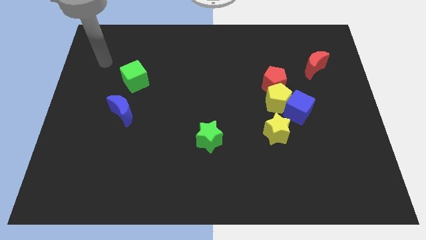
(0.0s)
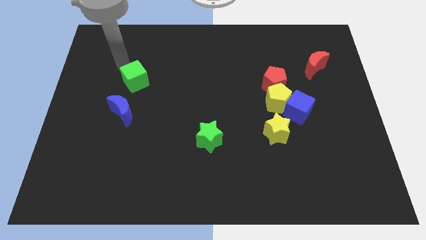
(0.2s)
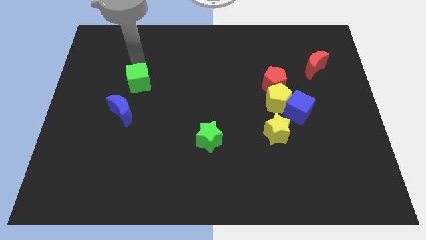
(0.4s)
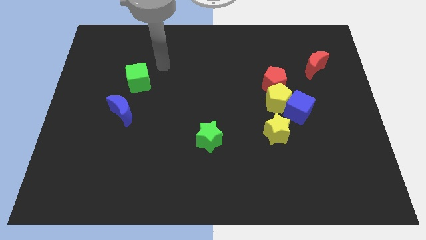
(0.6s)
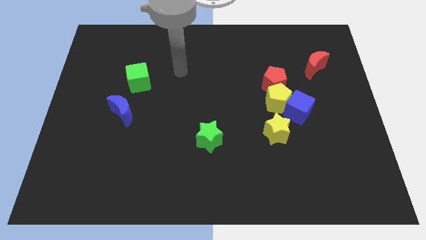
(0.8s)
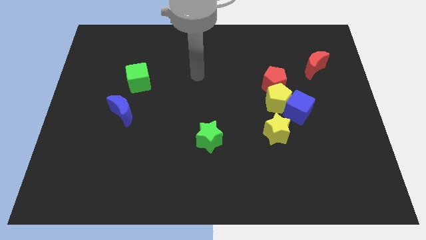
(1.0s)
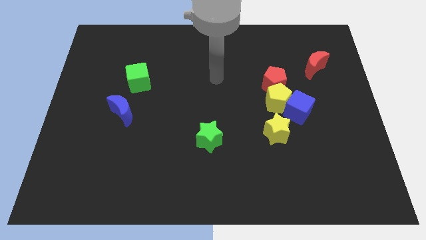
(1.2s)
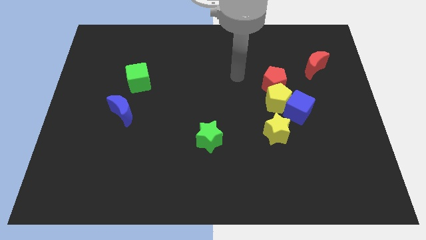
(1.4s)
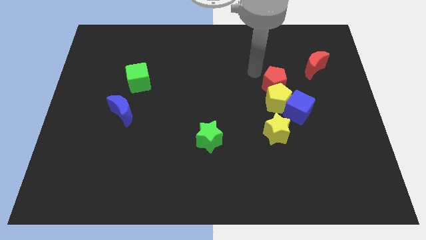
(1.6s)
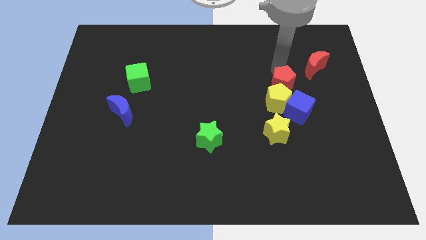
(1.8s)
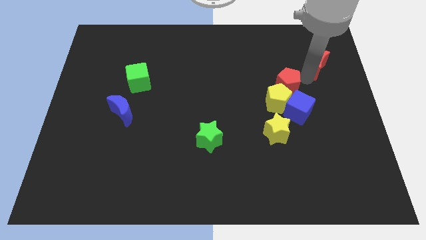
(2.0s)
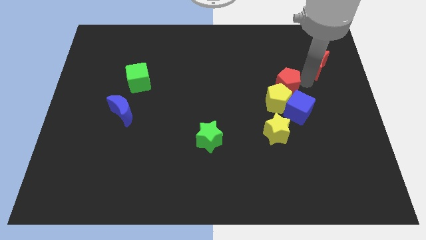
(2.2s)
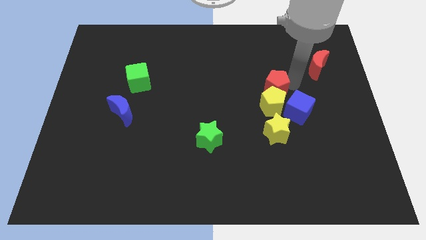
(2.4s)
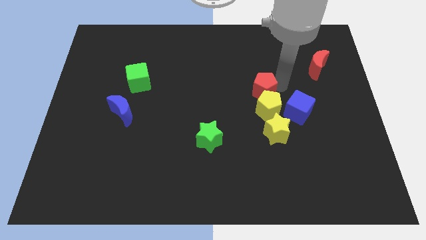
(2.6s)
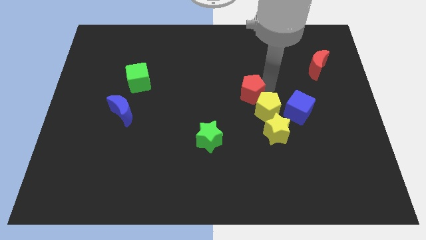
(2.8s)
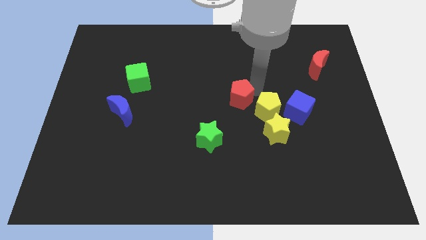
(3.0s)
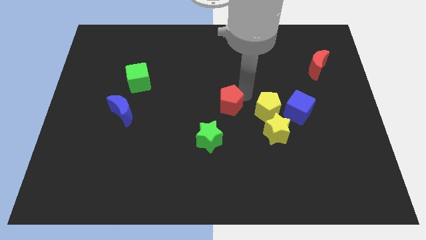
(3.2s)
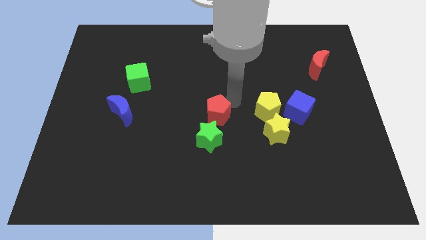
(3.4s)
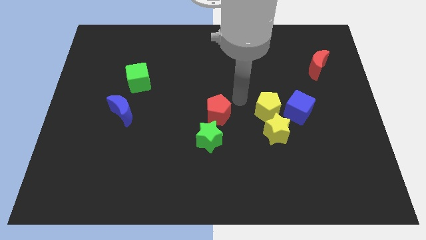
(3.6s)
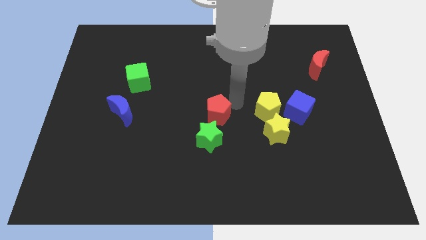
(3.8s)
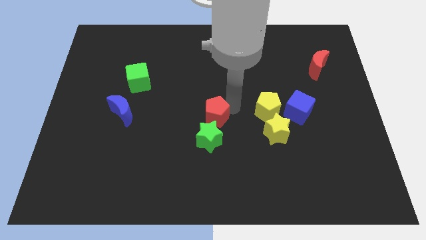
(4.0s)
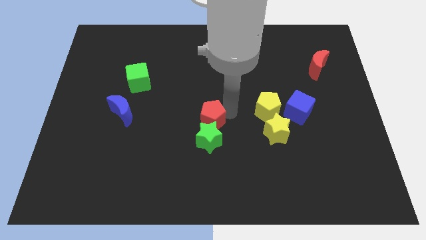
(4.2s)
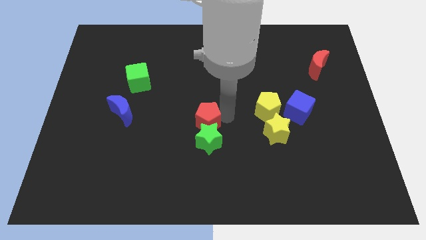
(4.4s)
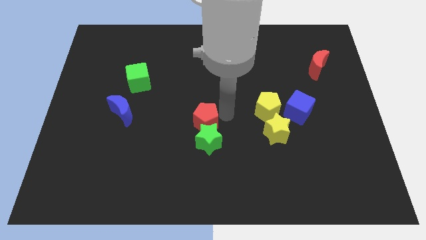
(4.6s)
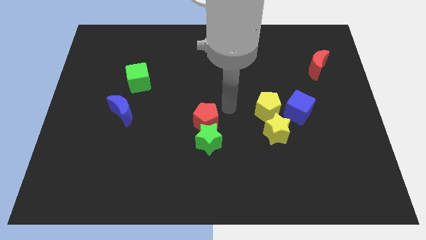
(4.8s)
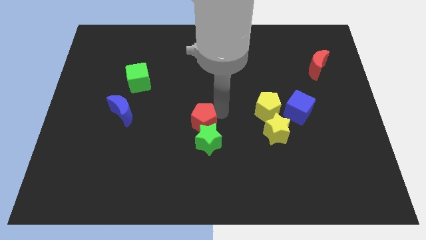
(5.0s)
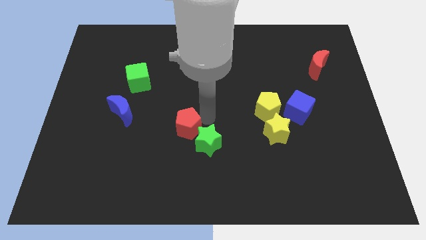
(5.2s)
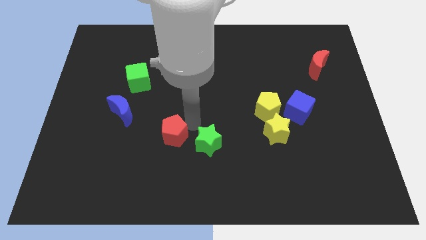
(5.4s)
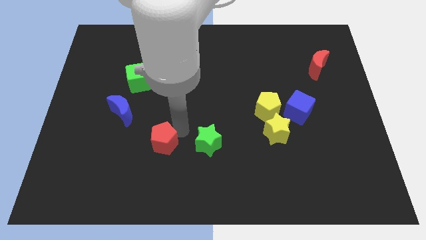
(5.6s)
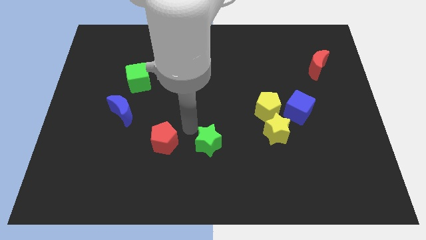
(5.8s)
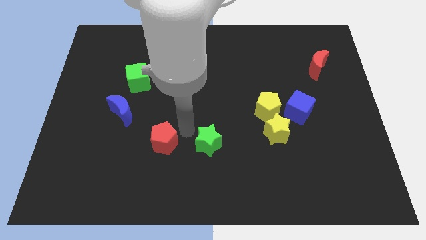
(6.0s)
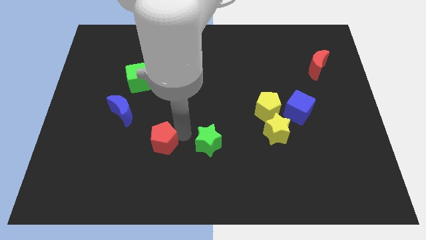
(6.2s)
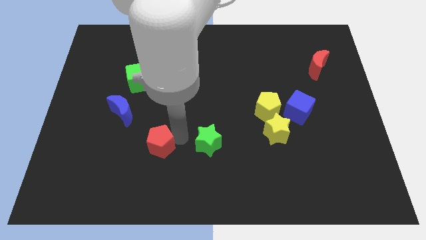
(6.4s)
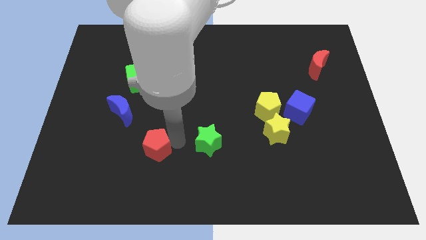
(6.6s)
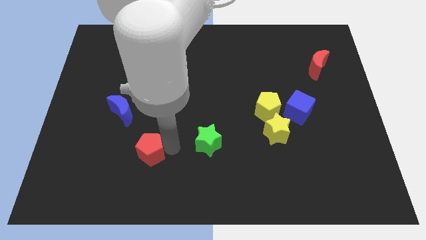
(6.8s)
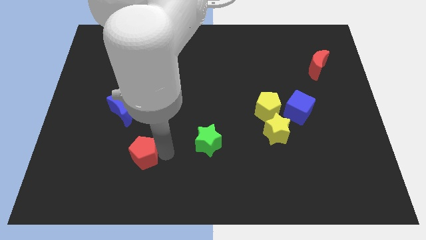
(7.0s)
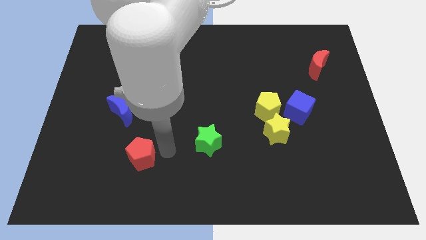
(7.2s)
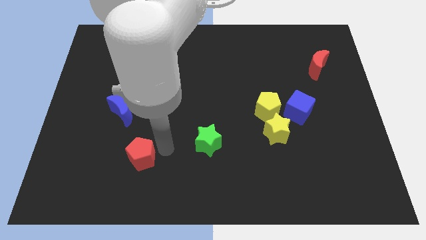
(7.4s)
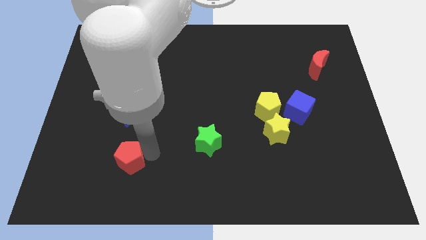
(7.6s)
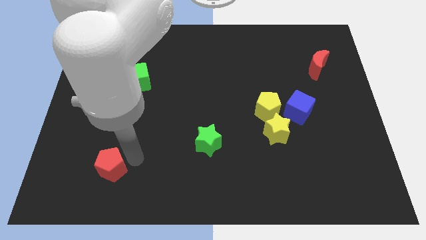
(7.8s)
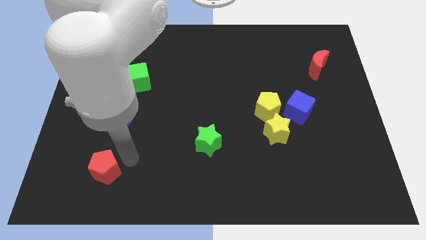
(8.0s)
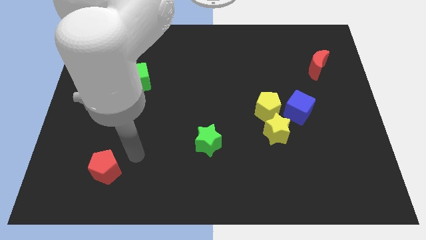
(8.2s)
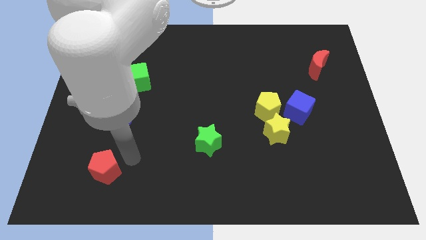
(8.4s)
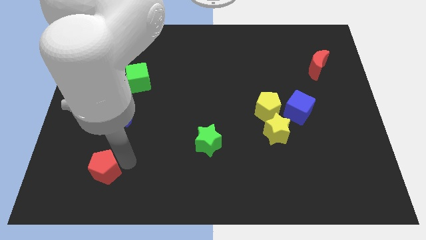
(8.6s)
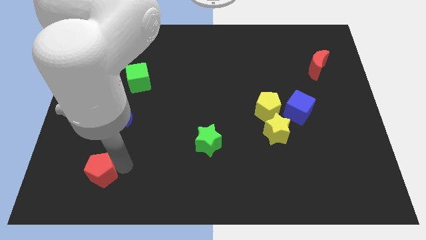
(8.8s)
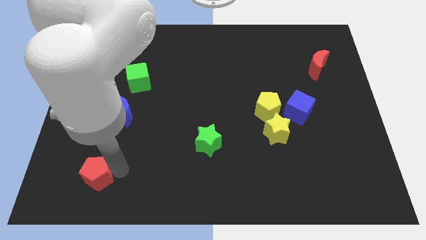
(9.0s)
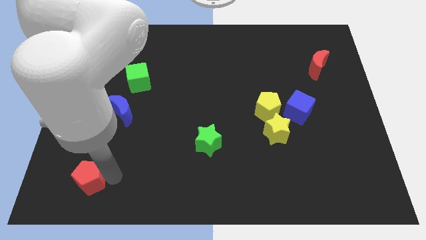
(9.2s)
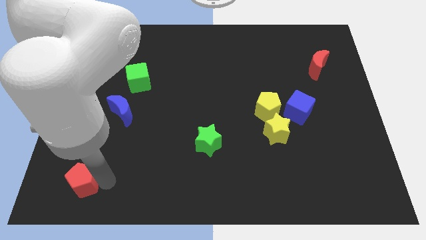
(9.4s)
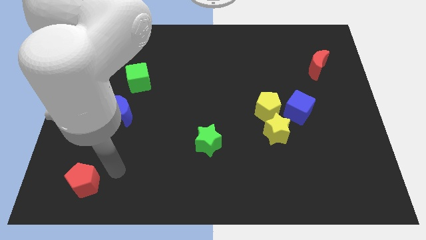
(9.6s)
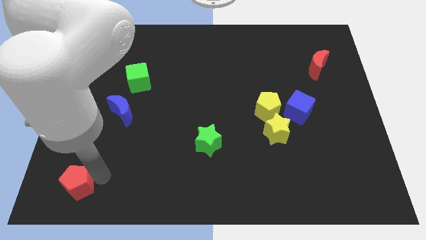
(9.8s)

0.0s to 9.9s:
push the red pentagon to the bottom left of the board

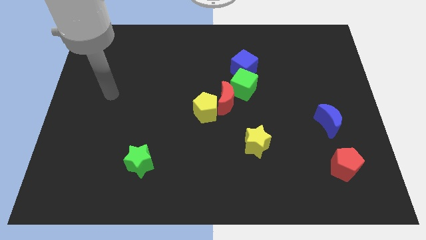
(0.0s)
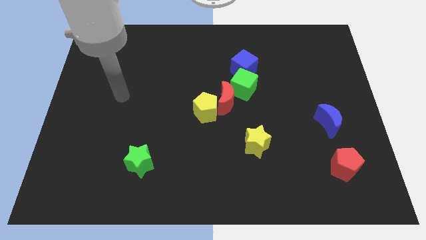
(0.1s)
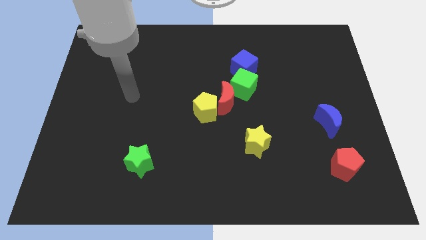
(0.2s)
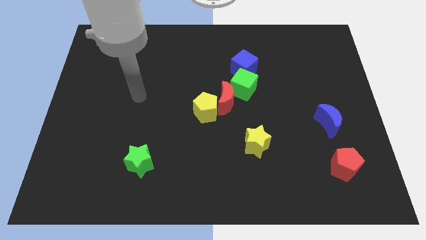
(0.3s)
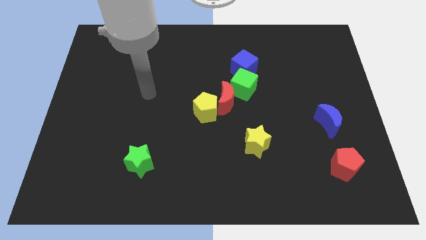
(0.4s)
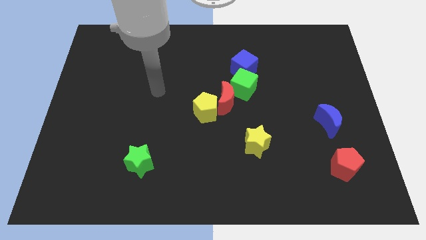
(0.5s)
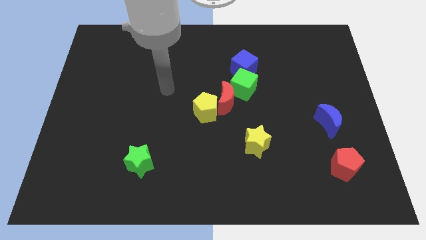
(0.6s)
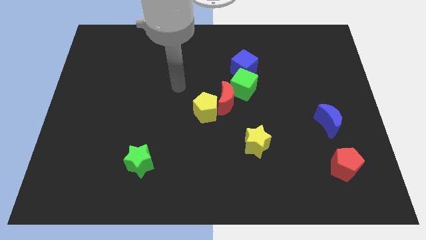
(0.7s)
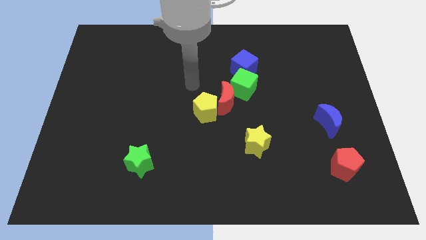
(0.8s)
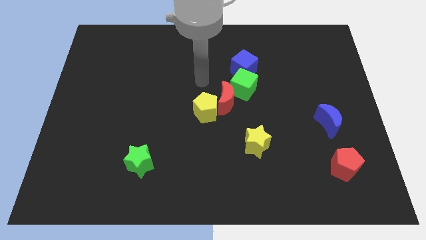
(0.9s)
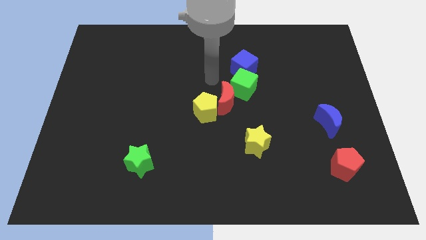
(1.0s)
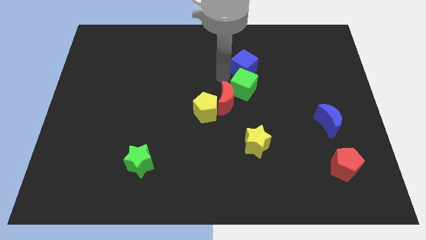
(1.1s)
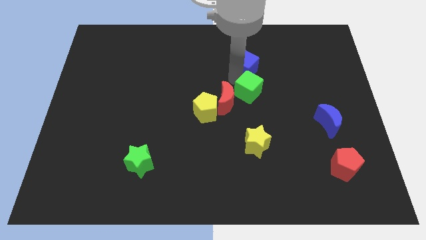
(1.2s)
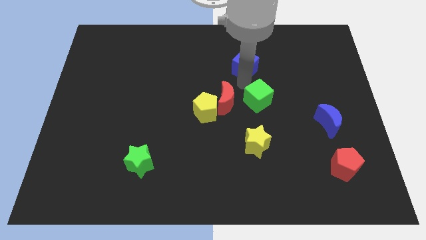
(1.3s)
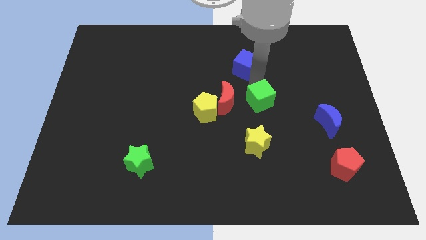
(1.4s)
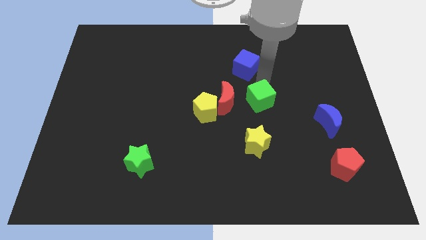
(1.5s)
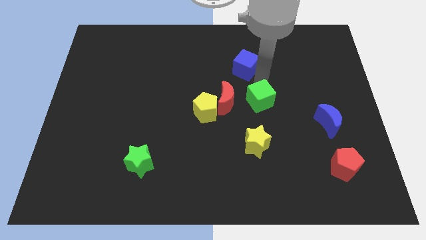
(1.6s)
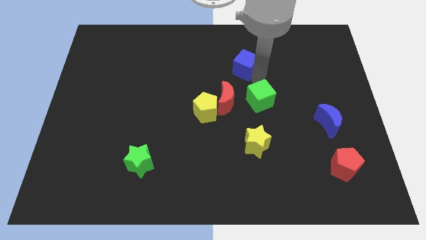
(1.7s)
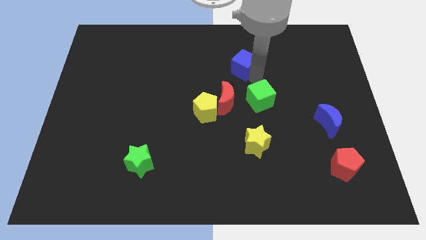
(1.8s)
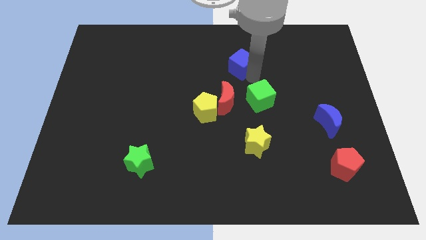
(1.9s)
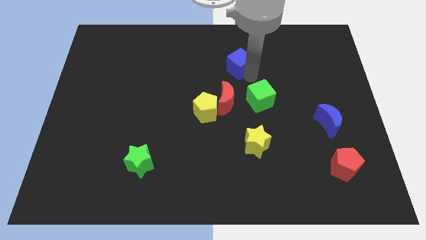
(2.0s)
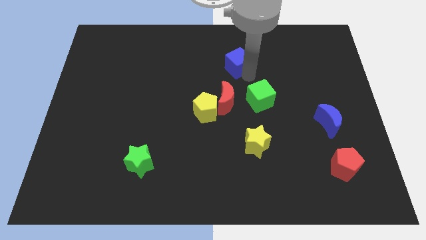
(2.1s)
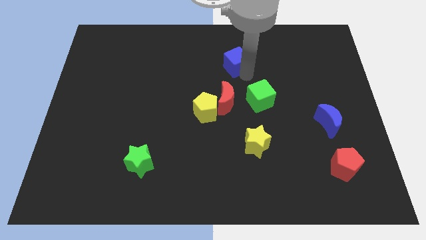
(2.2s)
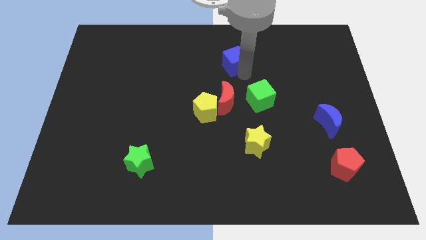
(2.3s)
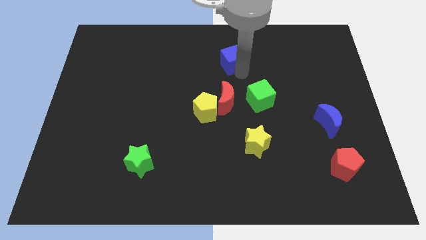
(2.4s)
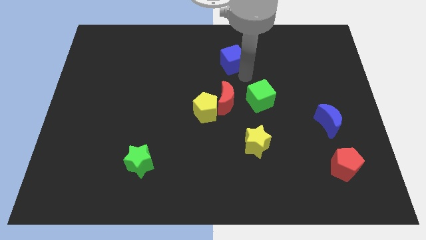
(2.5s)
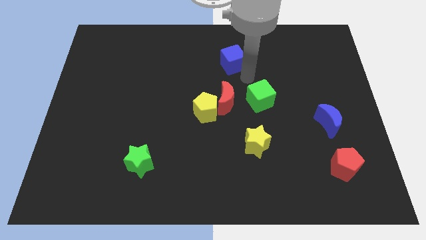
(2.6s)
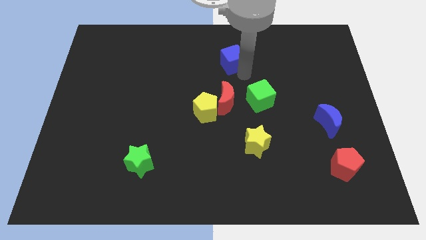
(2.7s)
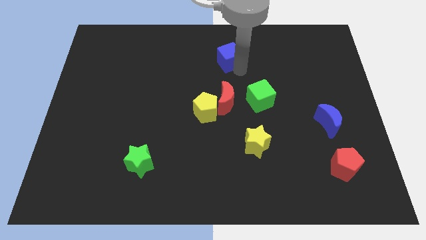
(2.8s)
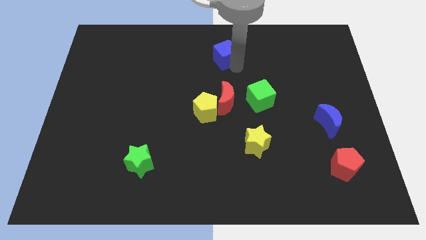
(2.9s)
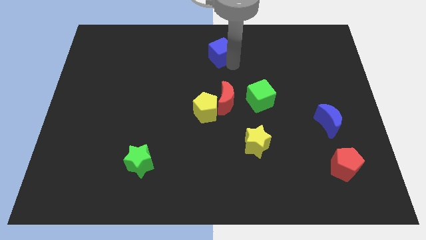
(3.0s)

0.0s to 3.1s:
push the blue cube to the top
